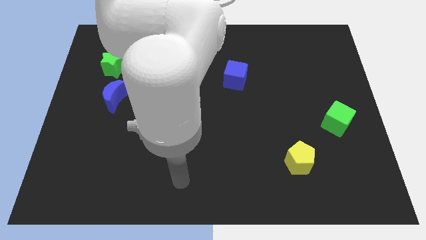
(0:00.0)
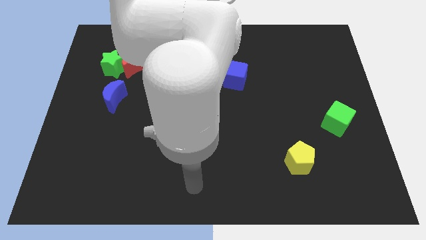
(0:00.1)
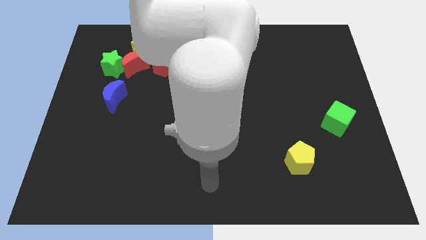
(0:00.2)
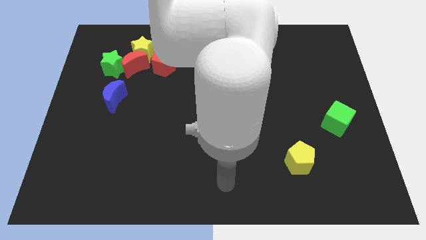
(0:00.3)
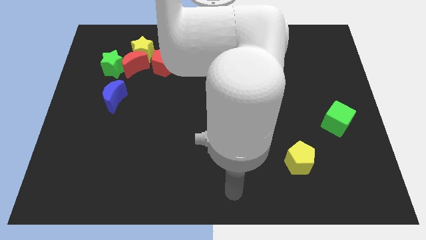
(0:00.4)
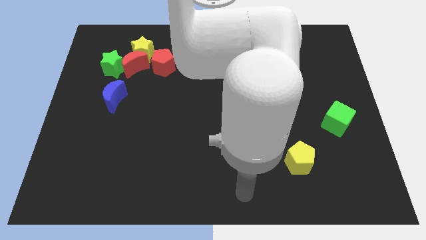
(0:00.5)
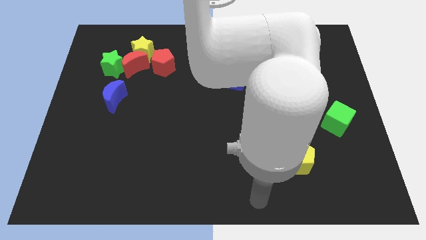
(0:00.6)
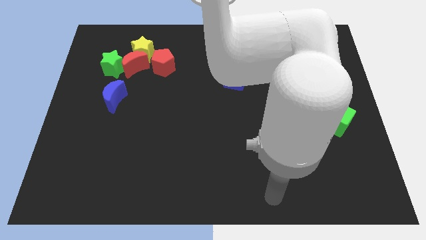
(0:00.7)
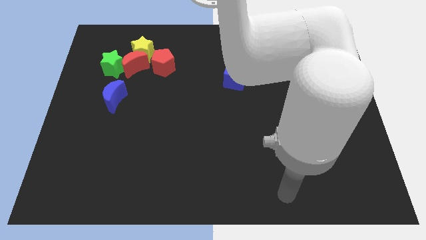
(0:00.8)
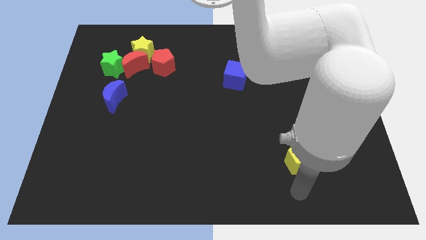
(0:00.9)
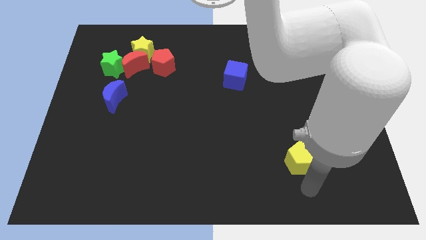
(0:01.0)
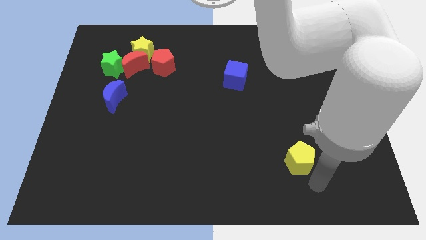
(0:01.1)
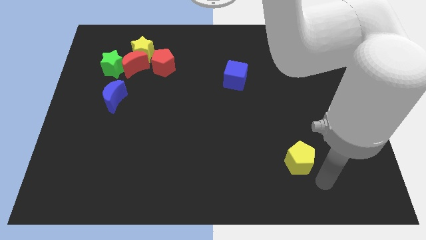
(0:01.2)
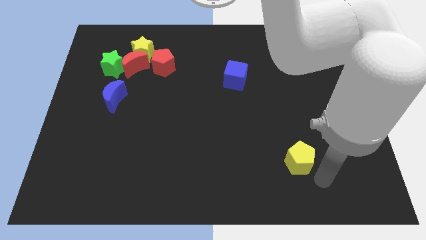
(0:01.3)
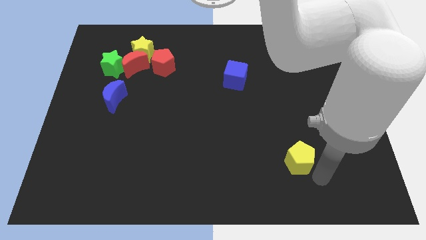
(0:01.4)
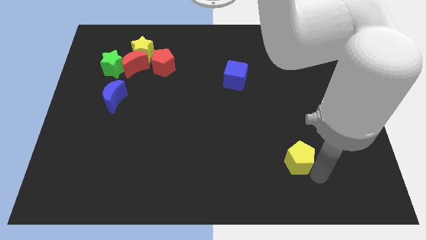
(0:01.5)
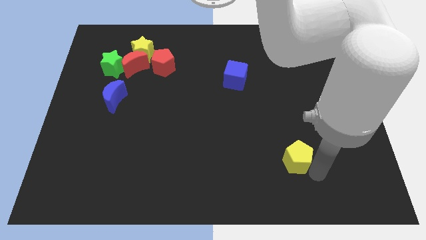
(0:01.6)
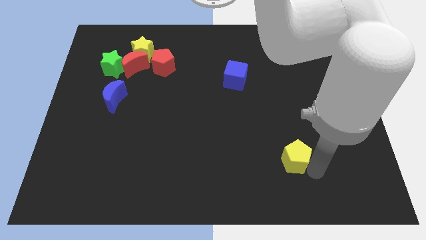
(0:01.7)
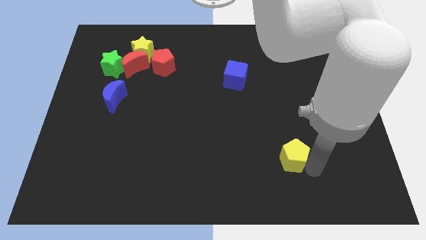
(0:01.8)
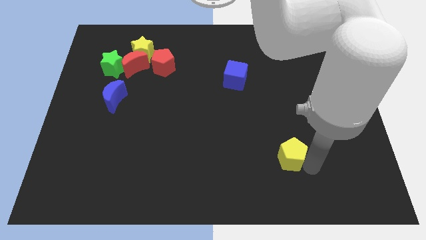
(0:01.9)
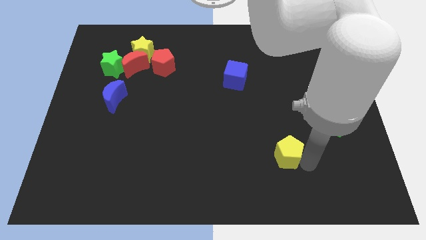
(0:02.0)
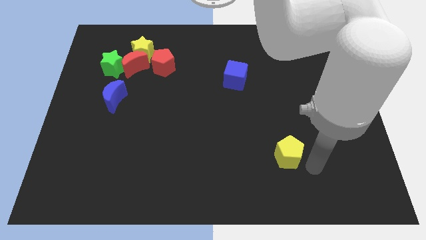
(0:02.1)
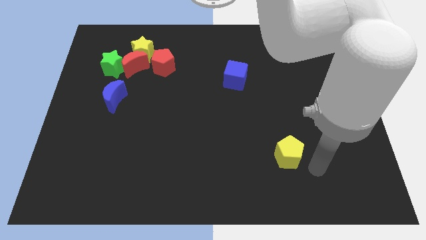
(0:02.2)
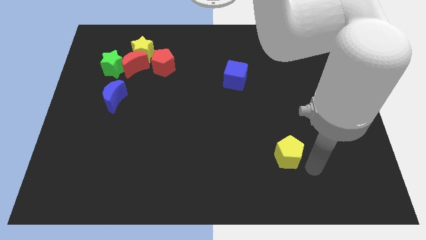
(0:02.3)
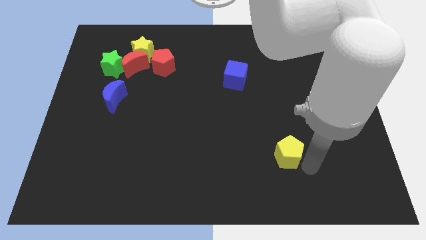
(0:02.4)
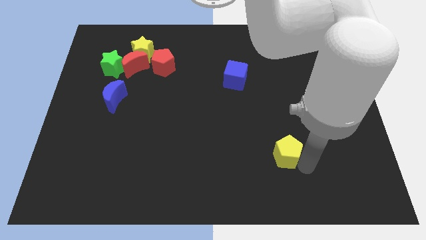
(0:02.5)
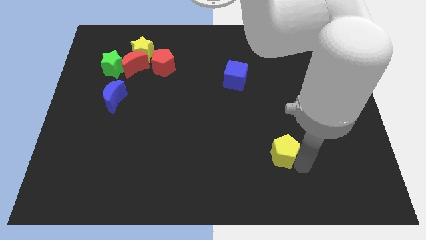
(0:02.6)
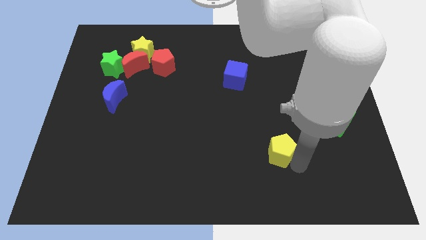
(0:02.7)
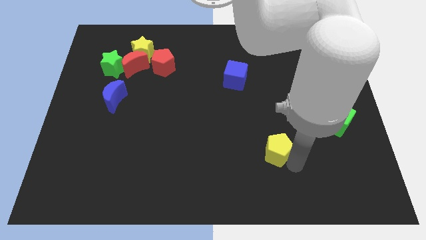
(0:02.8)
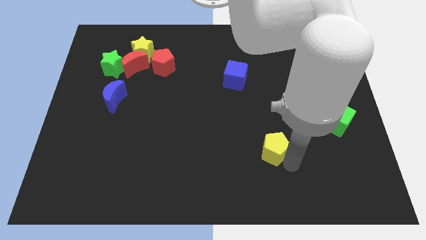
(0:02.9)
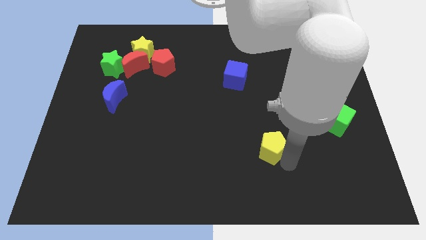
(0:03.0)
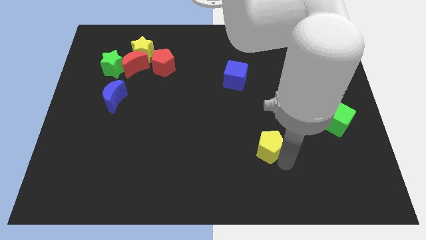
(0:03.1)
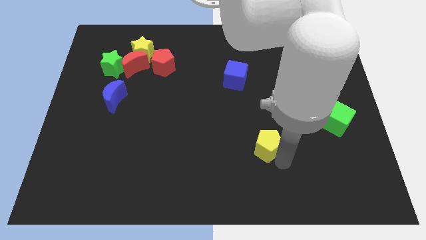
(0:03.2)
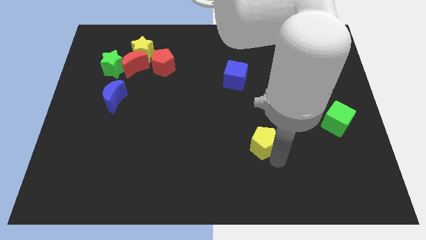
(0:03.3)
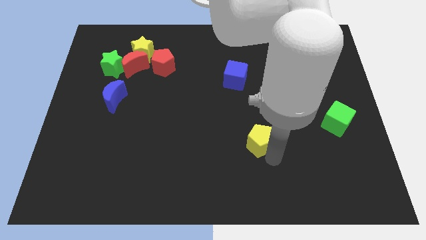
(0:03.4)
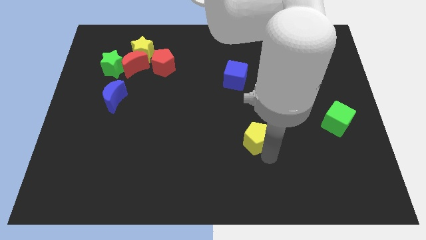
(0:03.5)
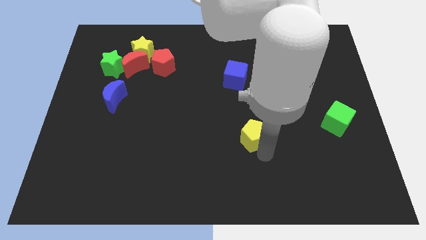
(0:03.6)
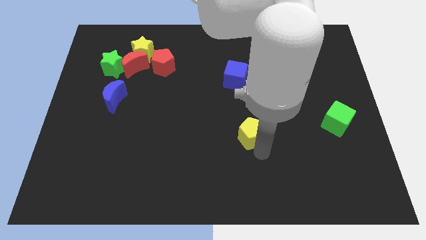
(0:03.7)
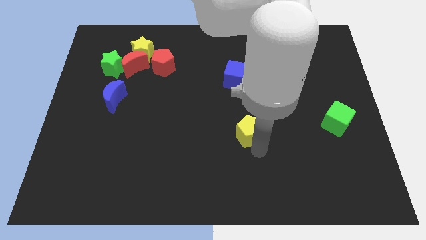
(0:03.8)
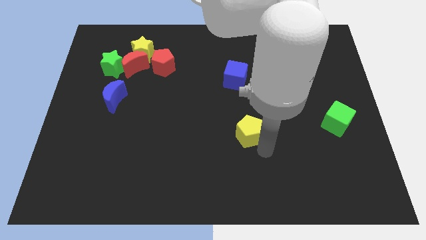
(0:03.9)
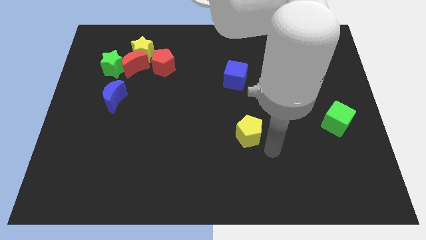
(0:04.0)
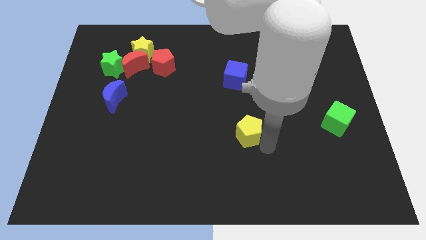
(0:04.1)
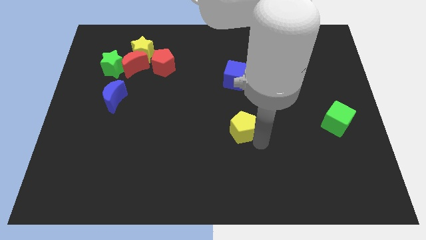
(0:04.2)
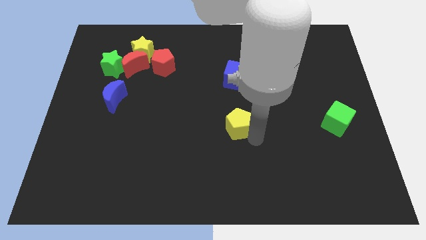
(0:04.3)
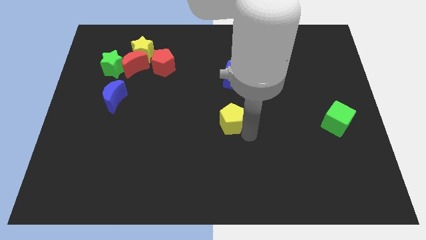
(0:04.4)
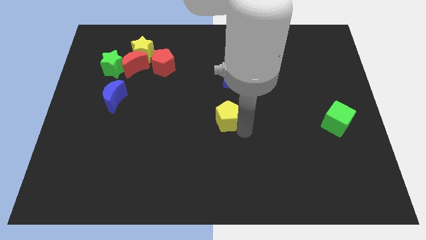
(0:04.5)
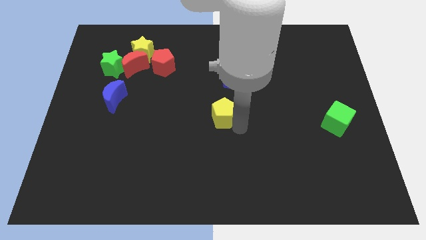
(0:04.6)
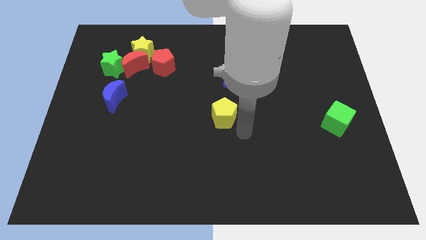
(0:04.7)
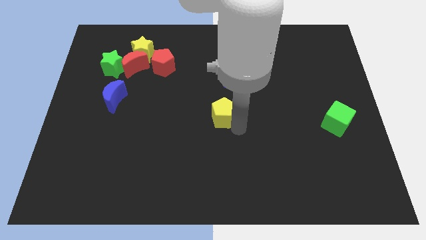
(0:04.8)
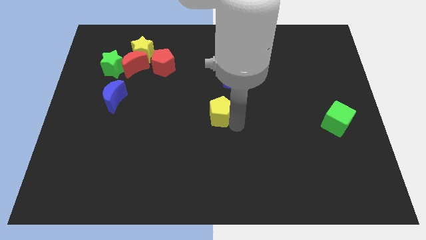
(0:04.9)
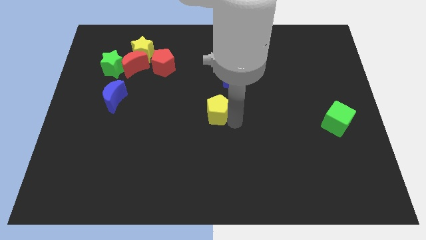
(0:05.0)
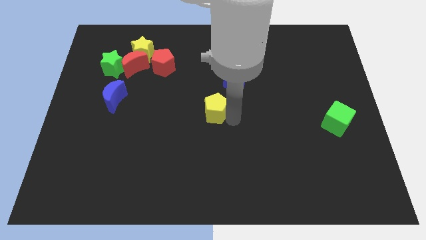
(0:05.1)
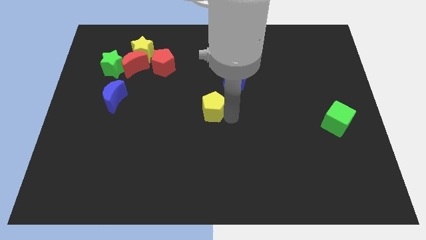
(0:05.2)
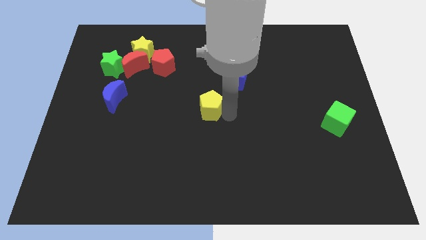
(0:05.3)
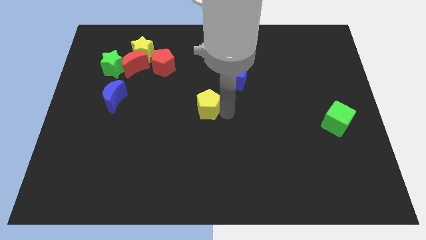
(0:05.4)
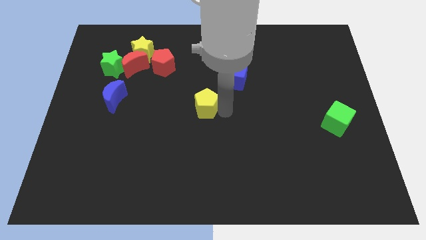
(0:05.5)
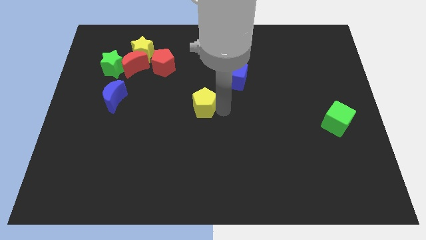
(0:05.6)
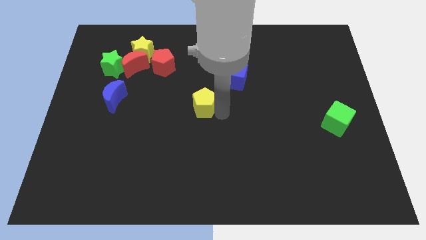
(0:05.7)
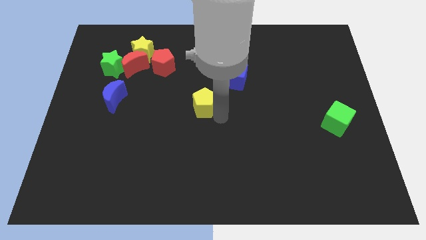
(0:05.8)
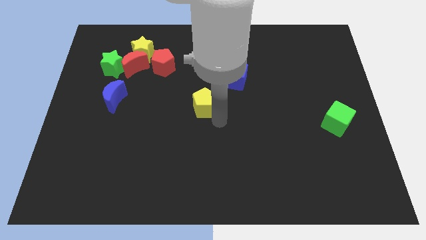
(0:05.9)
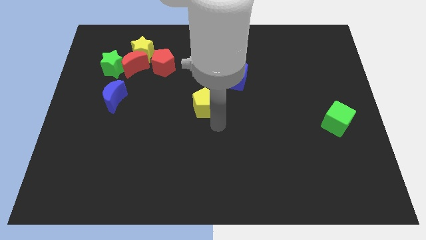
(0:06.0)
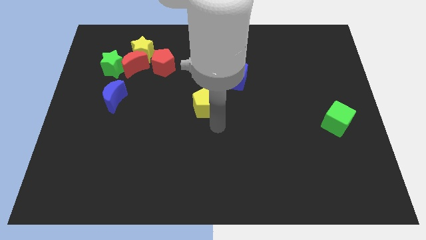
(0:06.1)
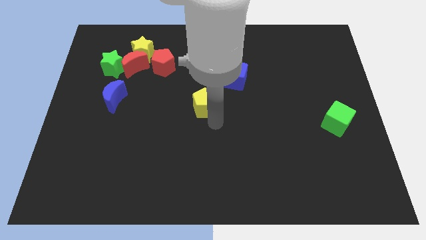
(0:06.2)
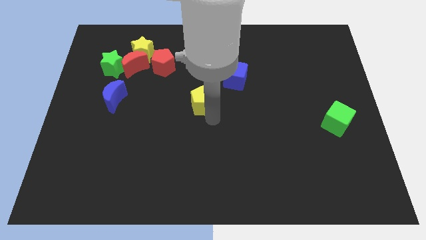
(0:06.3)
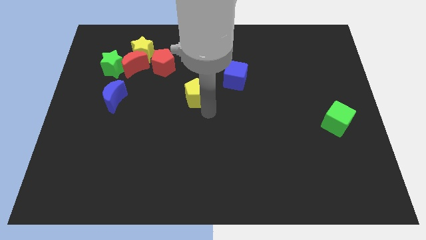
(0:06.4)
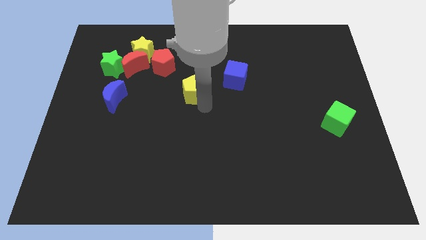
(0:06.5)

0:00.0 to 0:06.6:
move the yellow pentagon to the bottom right of the red pentagon

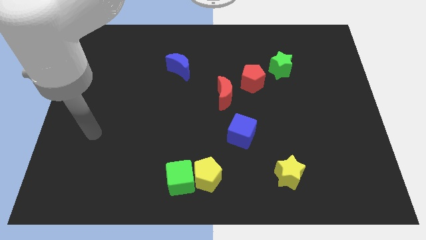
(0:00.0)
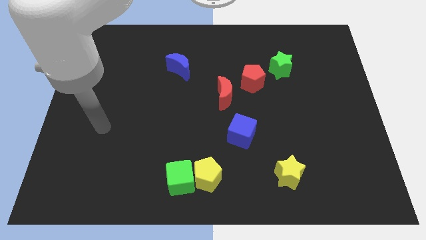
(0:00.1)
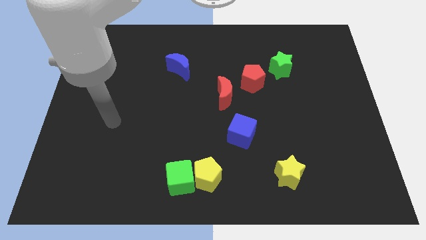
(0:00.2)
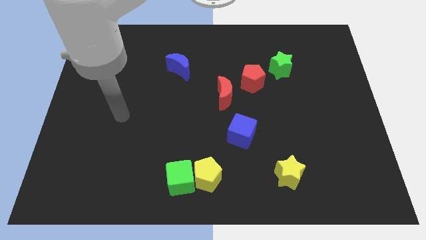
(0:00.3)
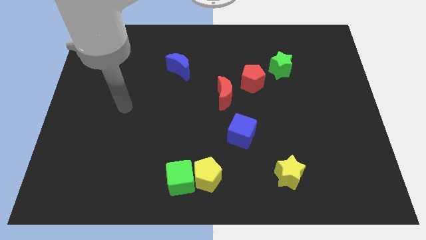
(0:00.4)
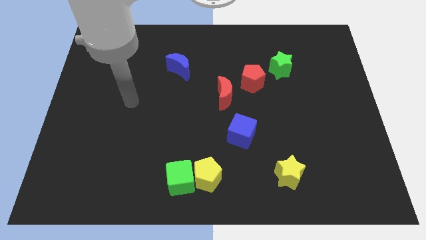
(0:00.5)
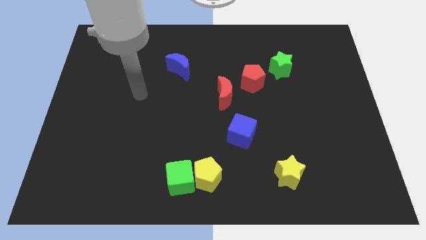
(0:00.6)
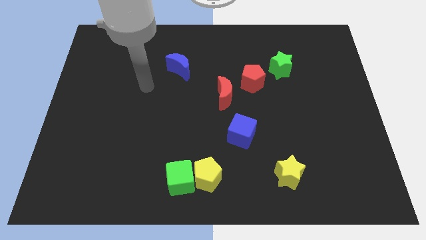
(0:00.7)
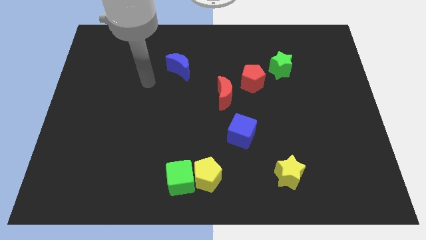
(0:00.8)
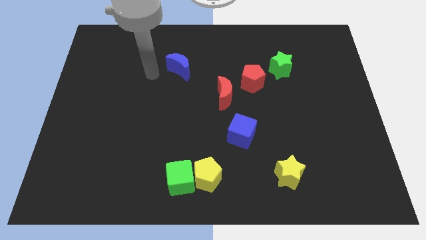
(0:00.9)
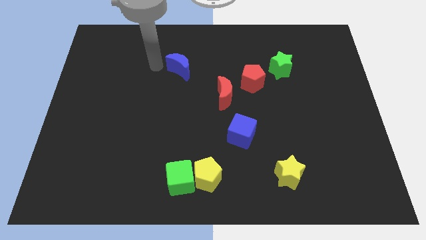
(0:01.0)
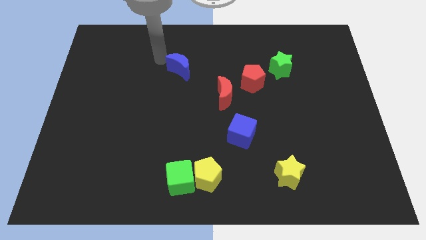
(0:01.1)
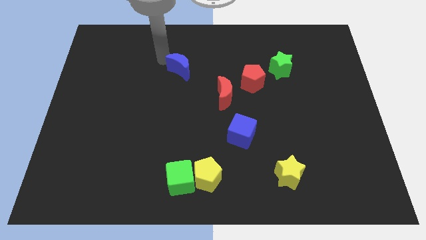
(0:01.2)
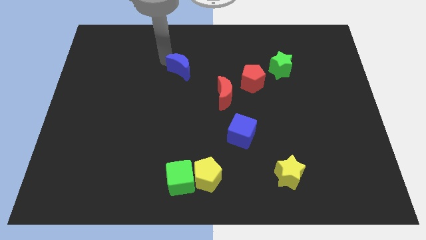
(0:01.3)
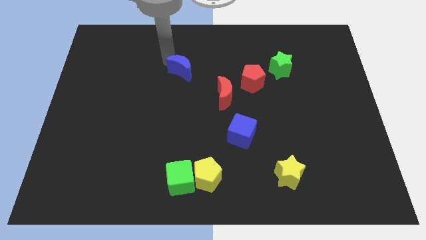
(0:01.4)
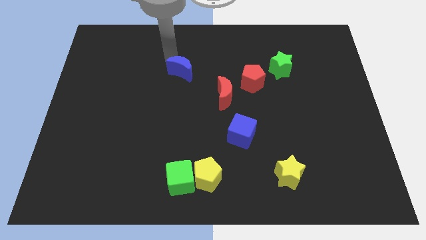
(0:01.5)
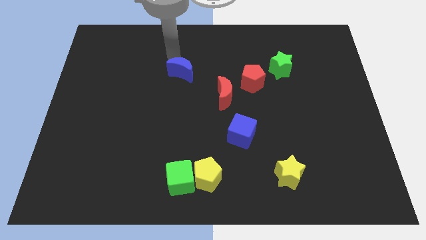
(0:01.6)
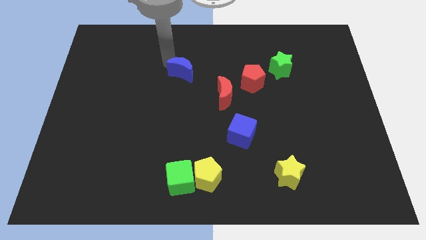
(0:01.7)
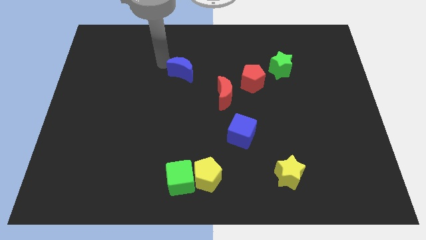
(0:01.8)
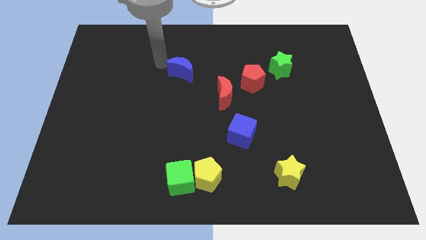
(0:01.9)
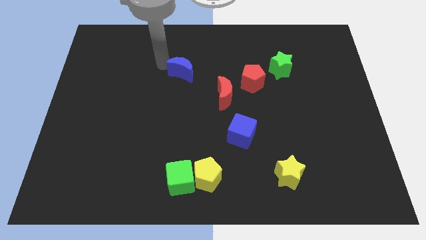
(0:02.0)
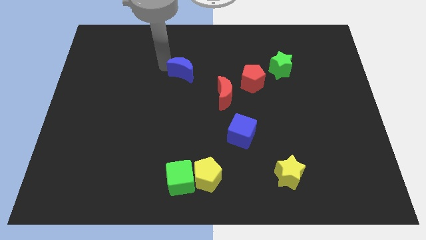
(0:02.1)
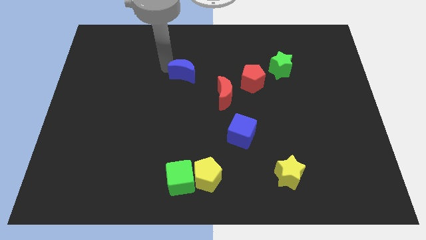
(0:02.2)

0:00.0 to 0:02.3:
put the blue moon to the top left of the red moon
